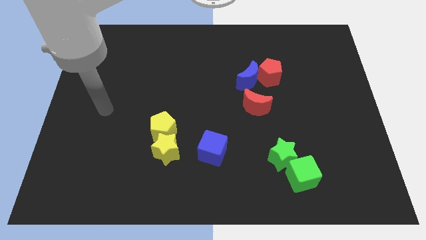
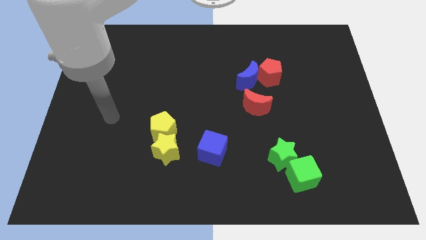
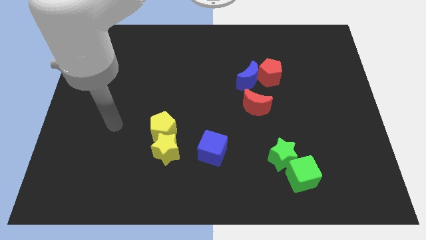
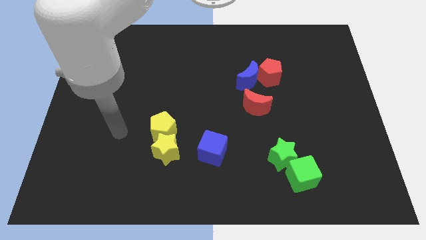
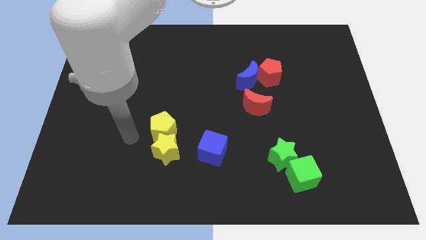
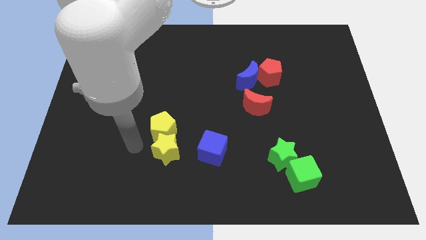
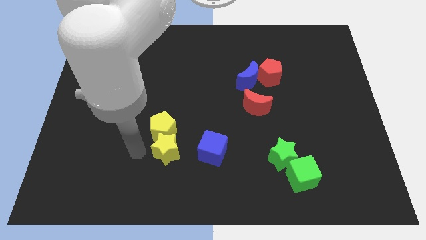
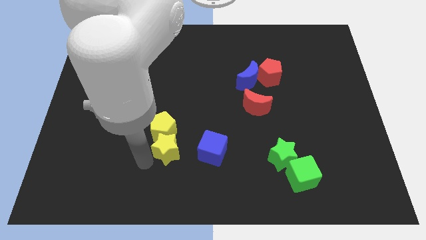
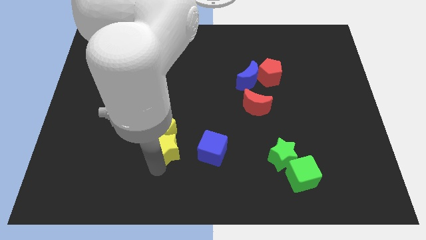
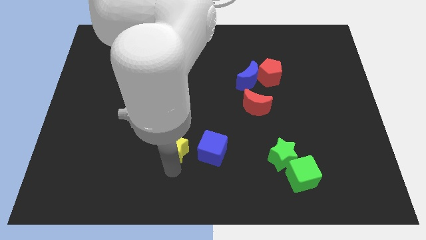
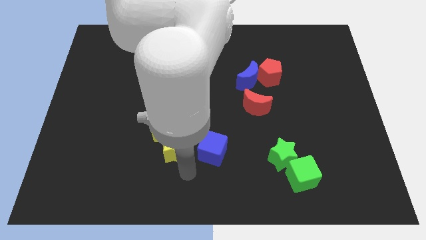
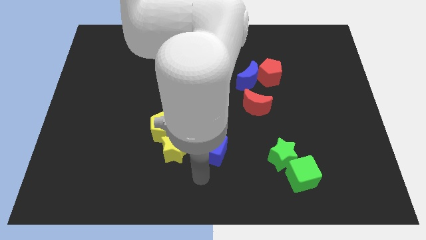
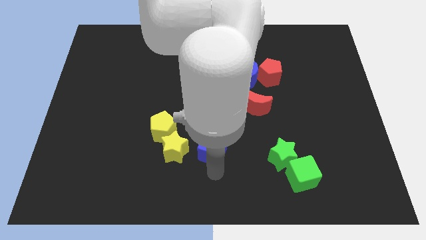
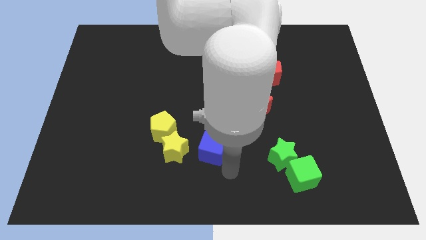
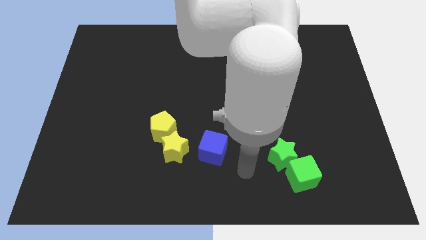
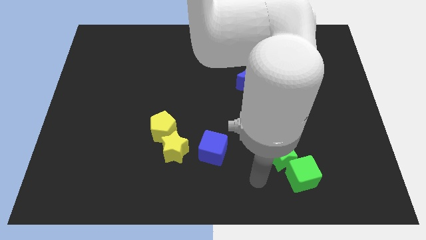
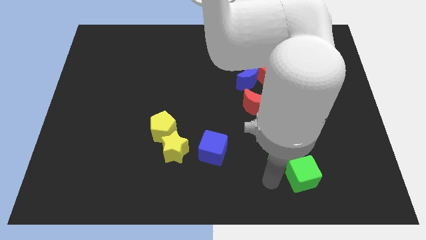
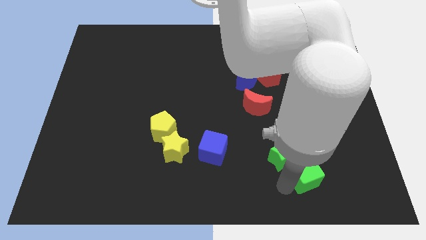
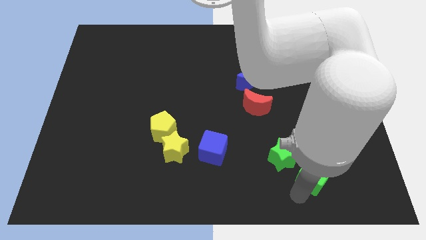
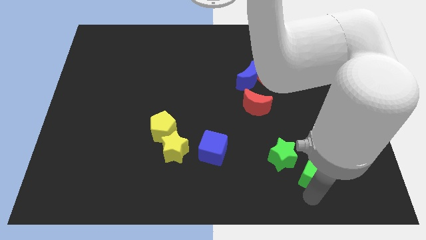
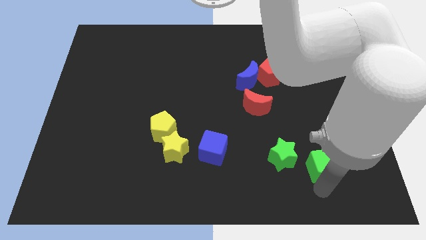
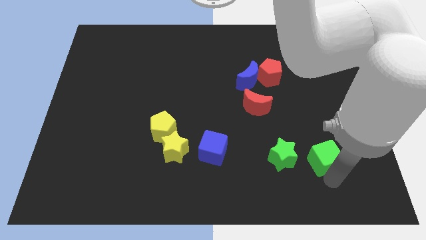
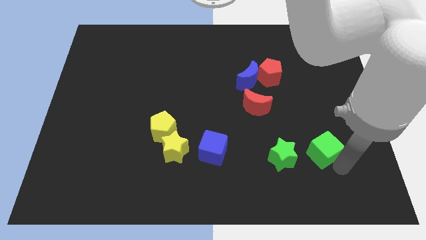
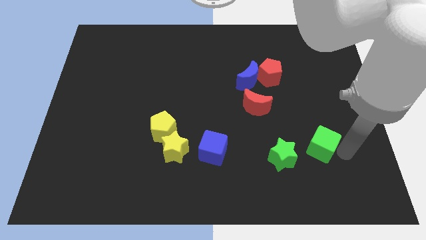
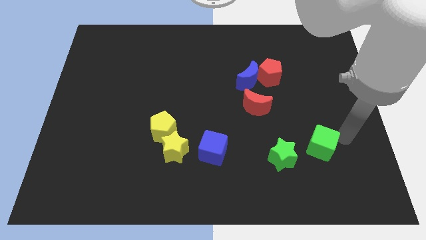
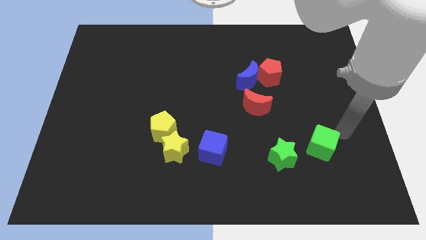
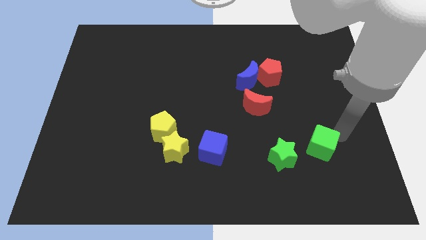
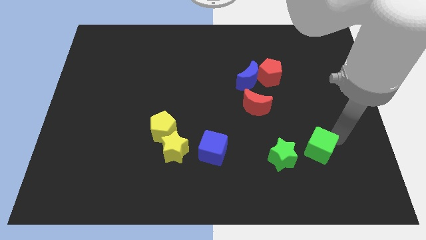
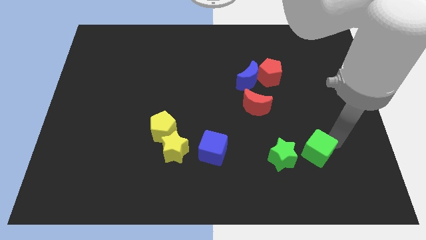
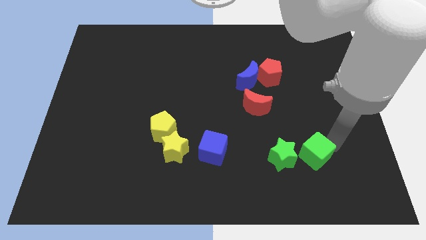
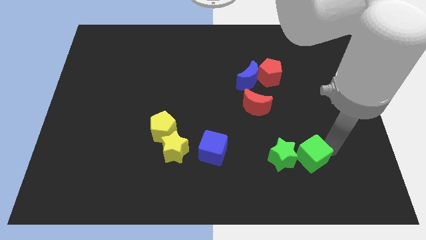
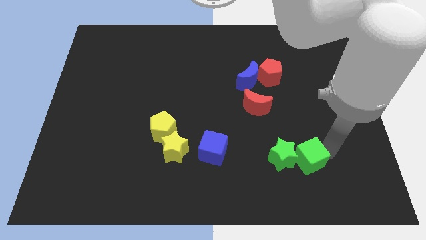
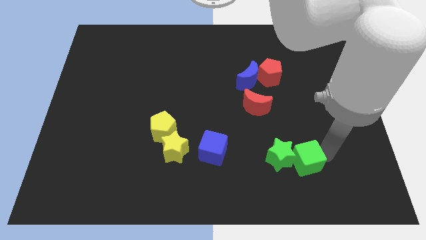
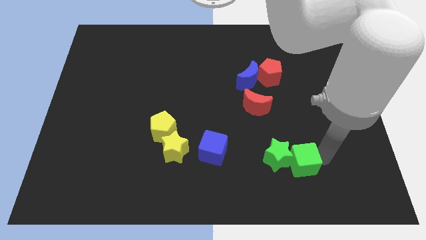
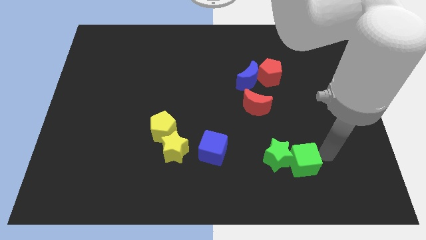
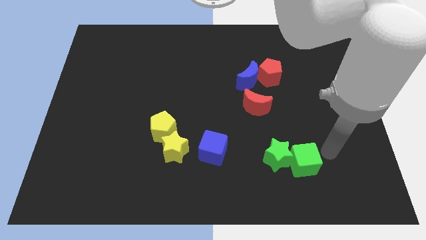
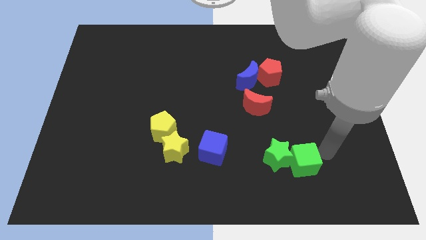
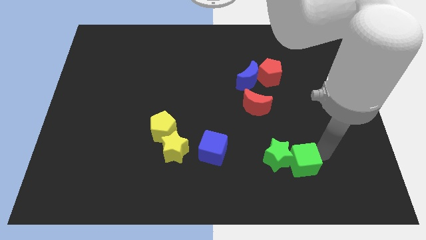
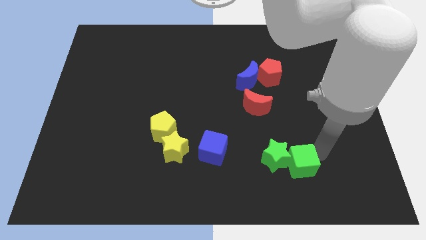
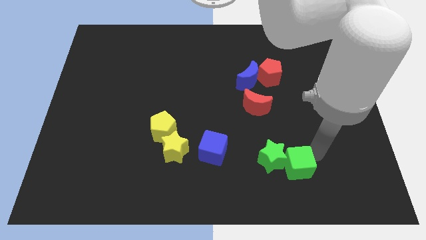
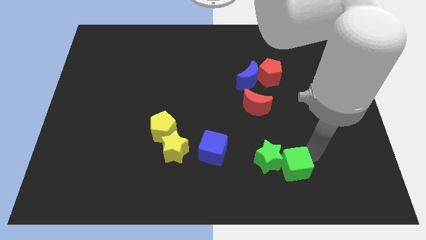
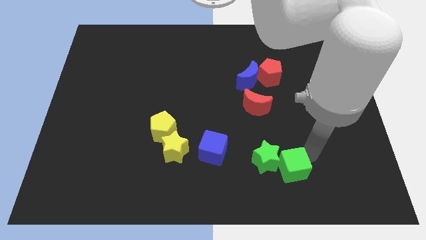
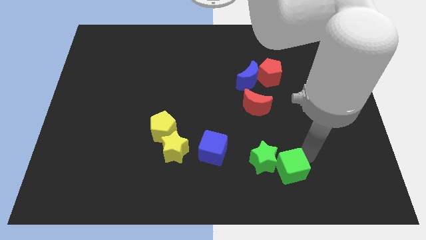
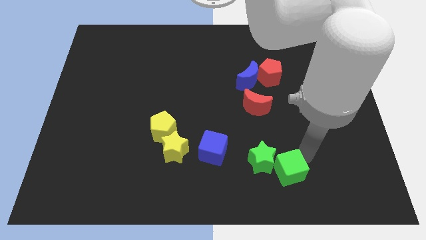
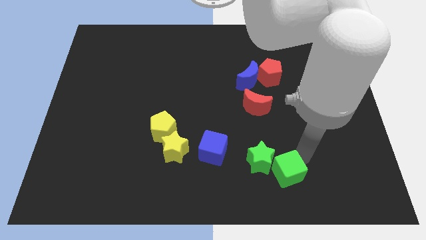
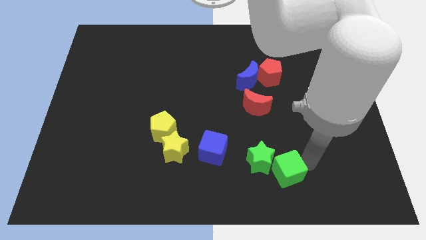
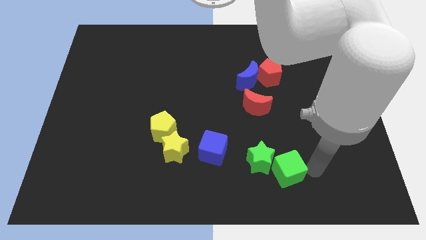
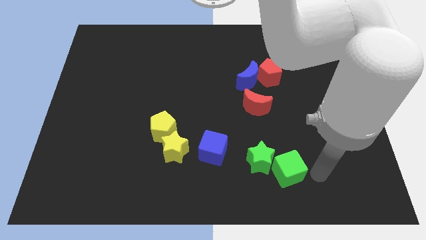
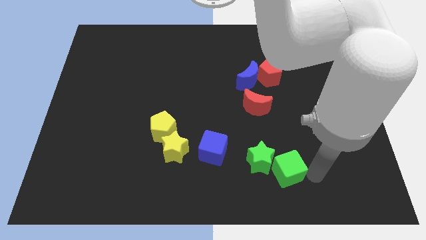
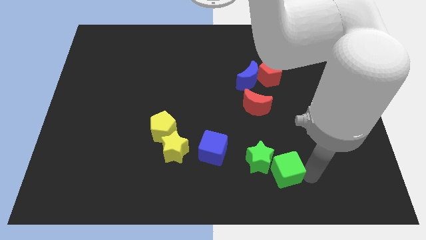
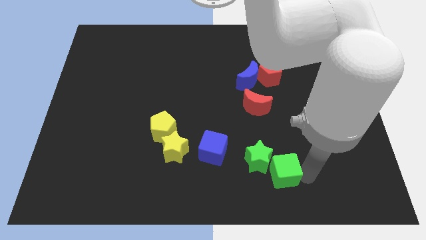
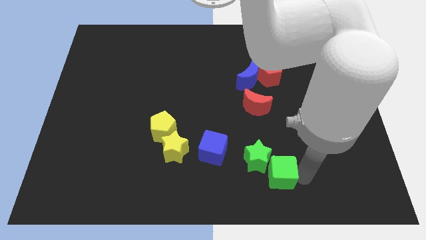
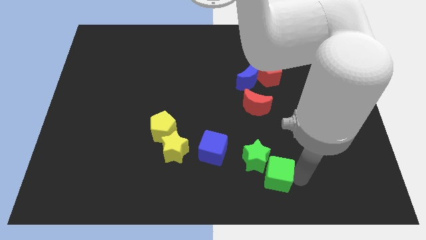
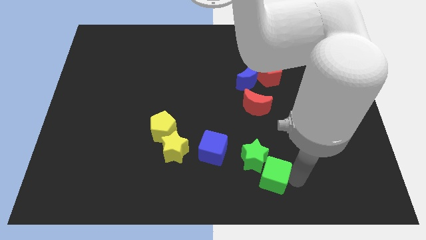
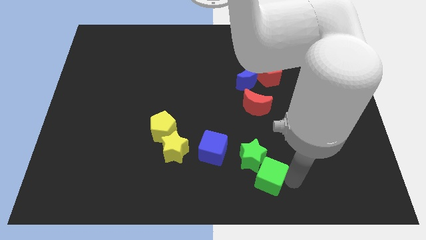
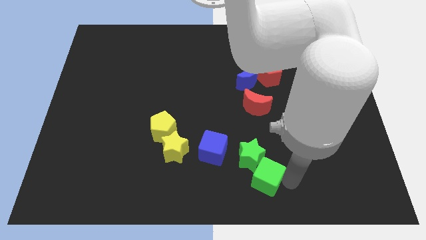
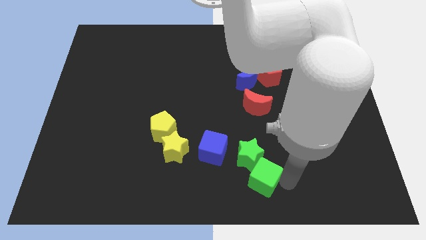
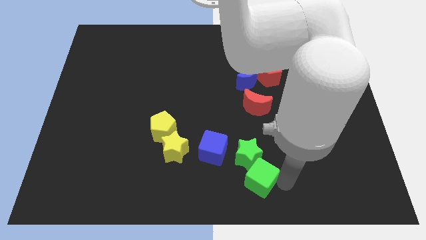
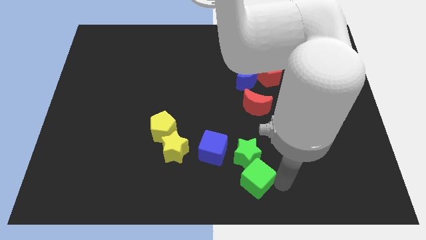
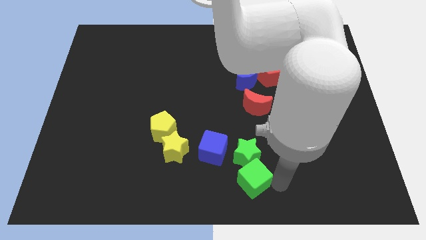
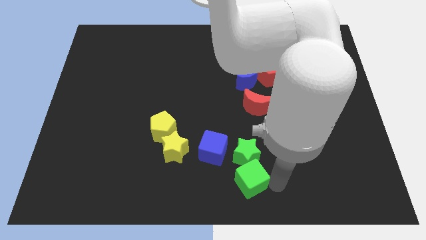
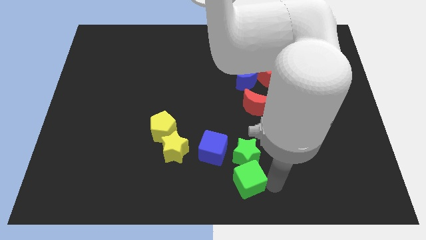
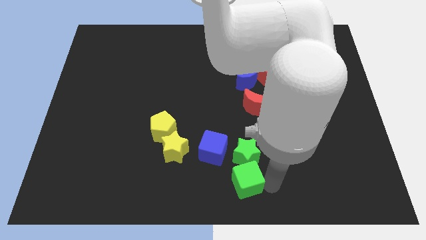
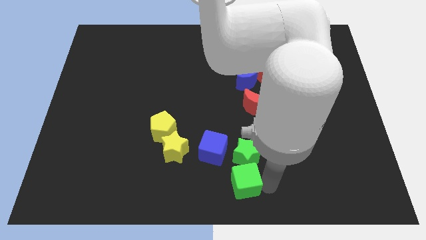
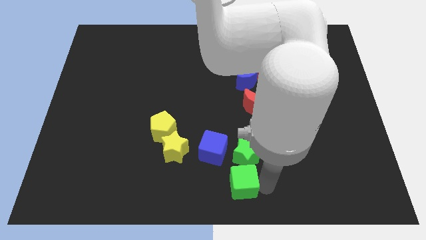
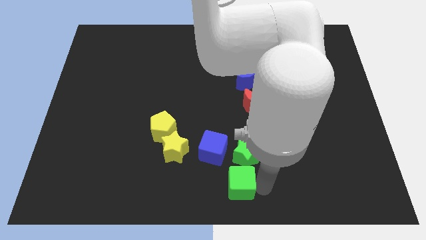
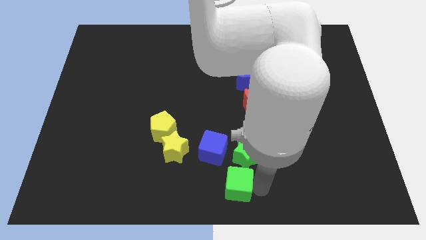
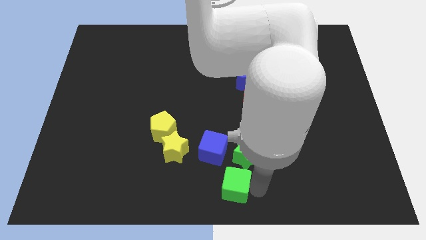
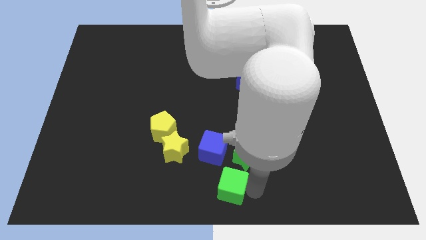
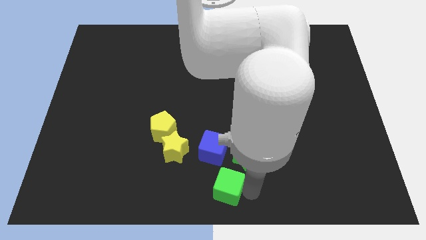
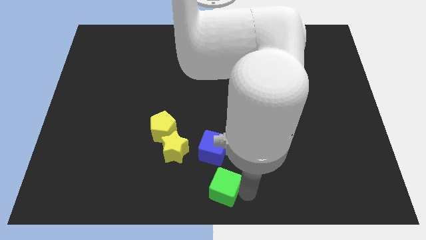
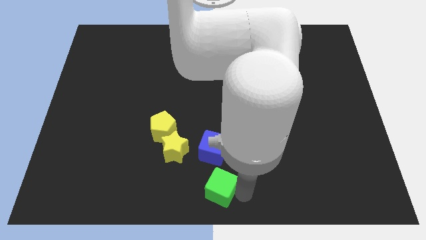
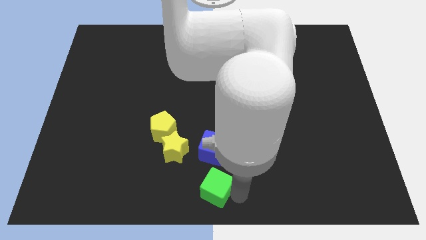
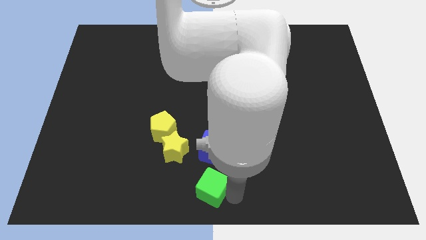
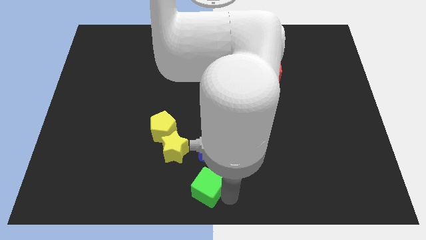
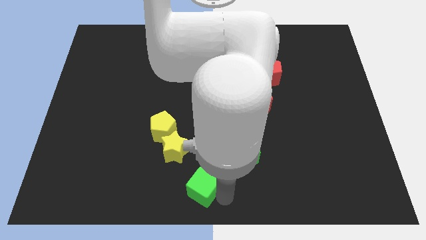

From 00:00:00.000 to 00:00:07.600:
move the green cube left

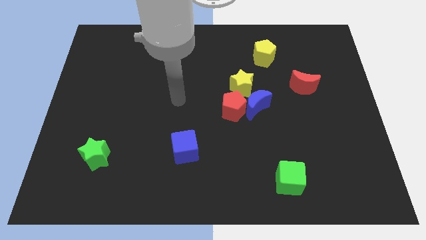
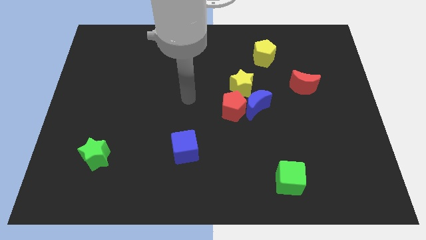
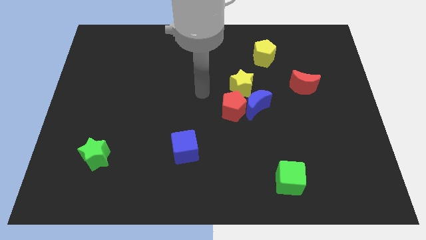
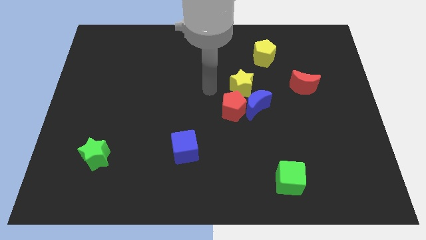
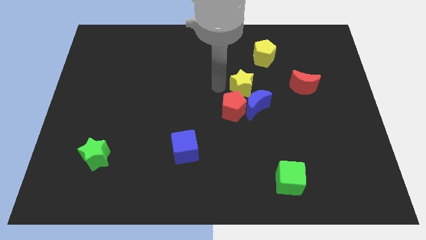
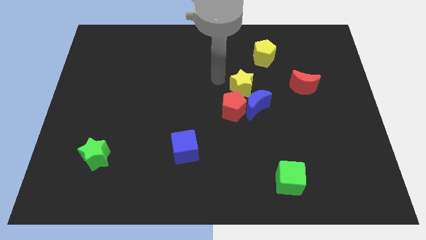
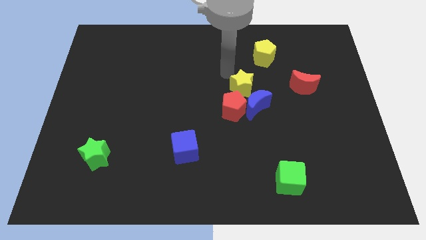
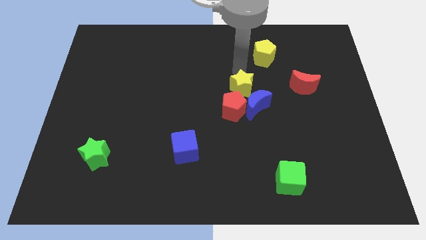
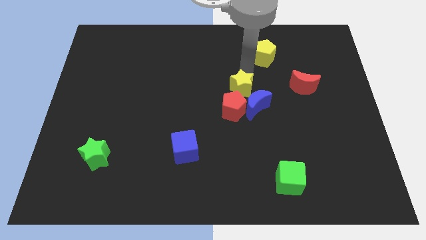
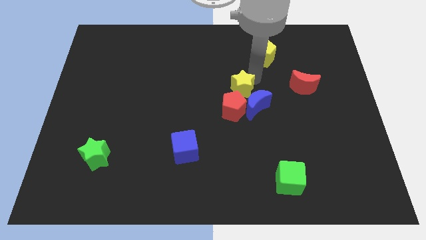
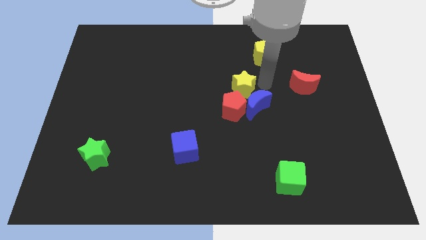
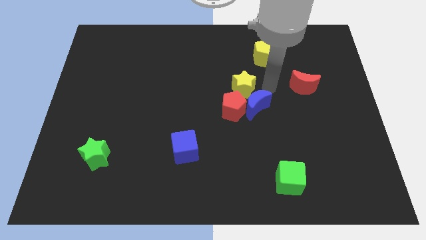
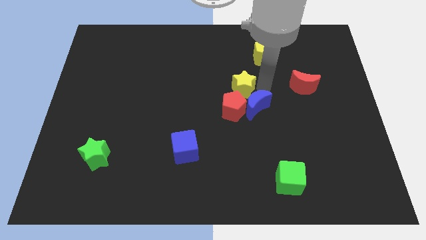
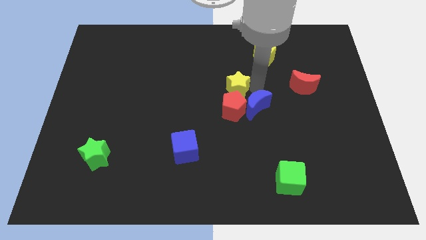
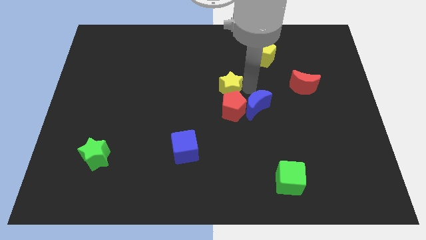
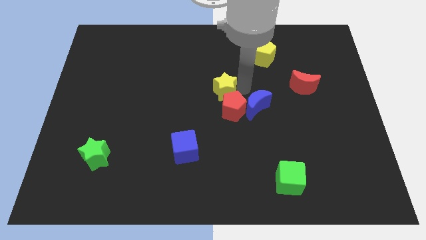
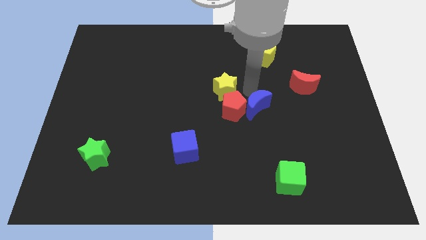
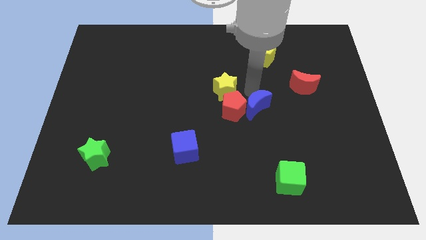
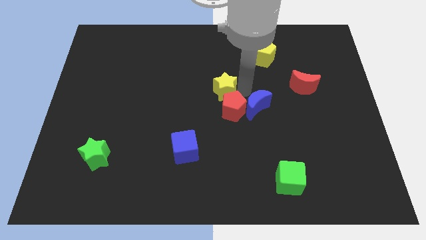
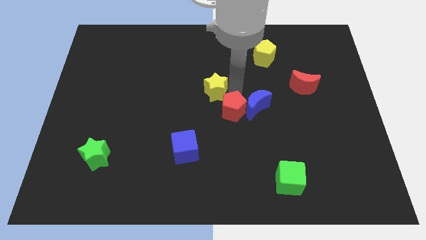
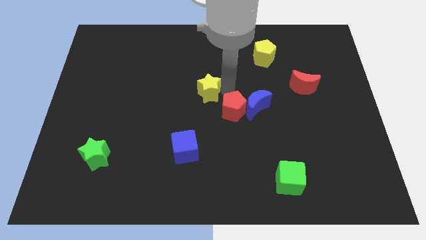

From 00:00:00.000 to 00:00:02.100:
push the yellow star a bit to the left
